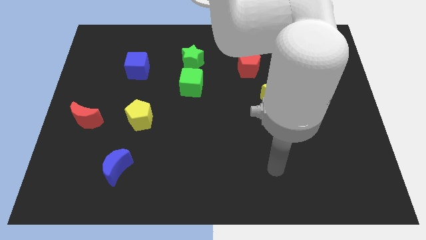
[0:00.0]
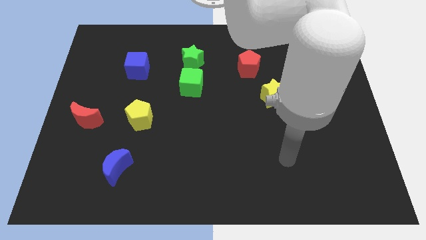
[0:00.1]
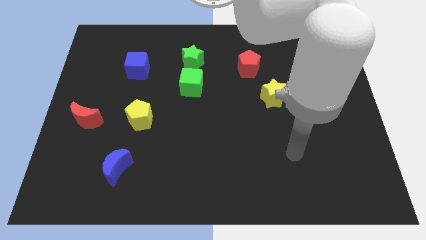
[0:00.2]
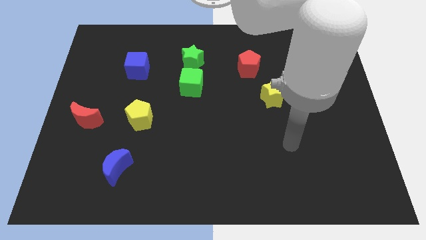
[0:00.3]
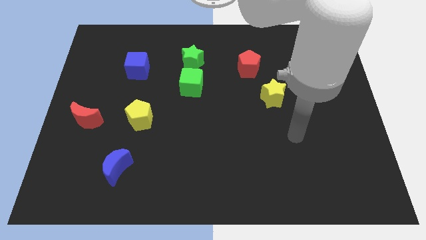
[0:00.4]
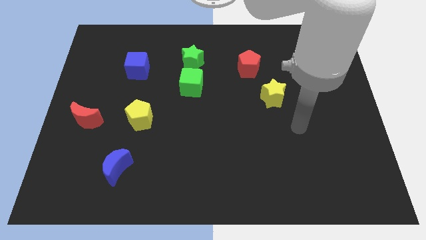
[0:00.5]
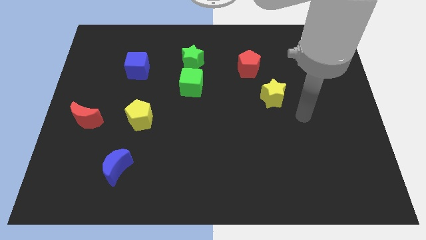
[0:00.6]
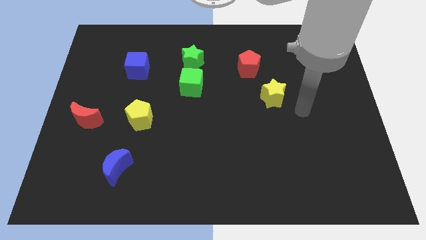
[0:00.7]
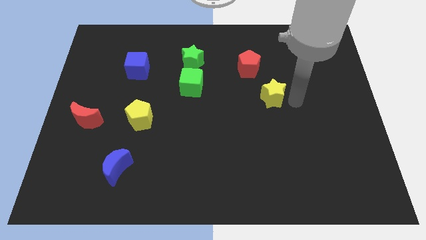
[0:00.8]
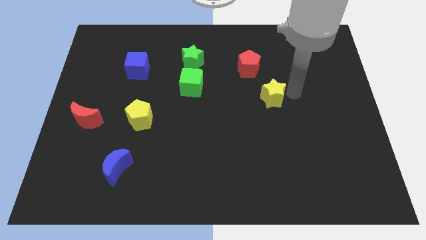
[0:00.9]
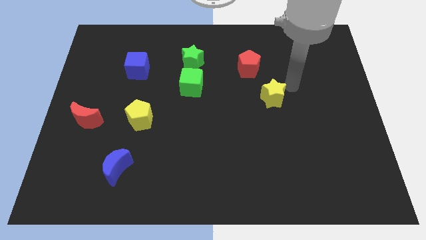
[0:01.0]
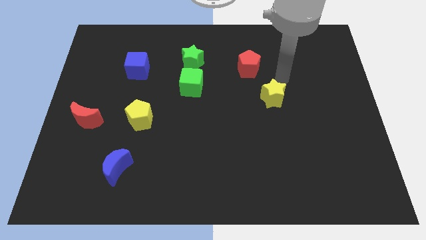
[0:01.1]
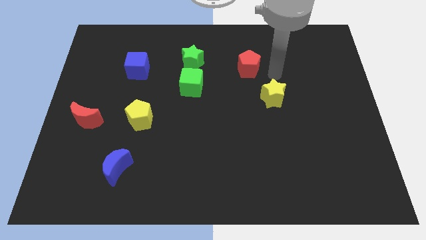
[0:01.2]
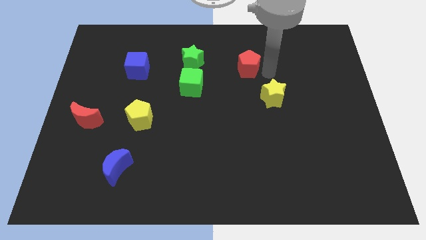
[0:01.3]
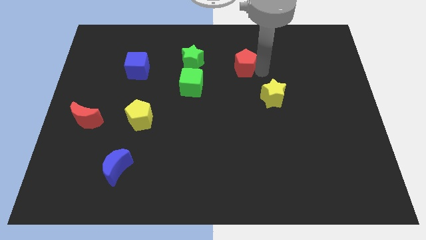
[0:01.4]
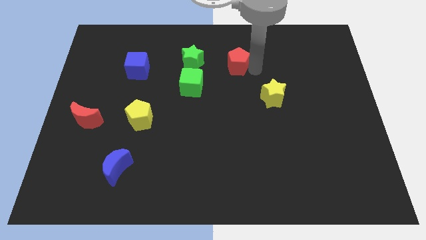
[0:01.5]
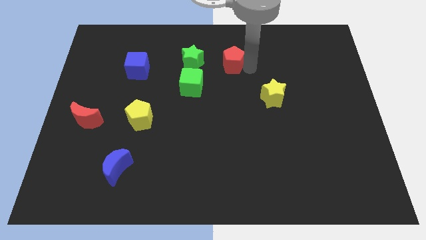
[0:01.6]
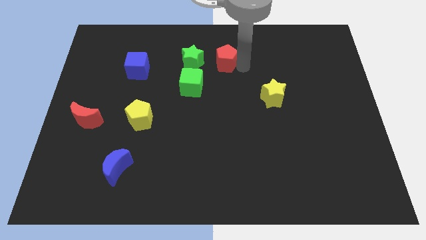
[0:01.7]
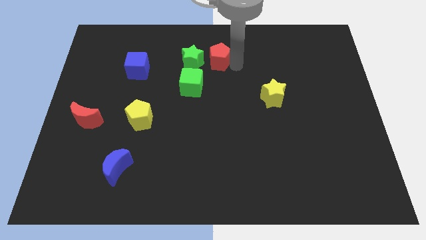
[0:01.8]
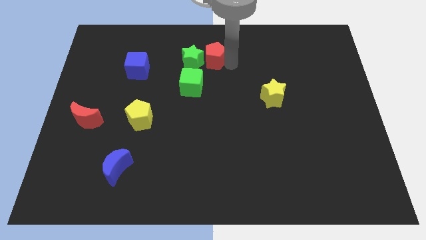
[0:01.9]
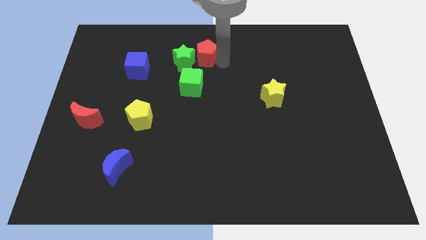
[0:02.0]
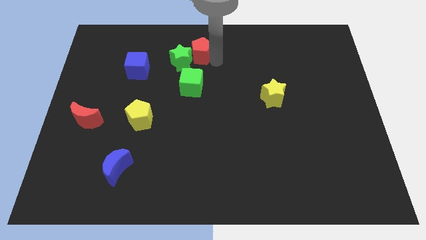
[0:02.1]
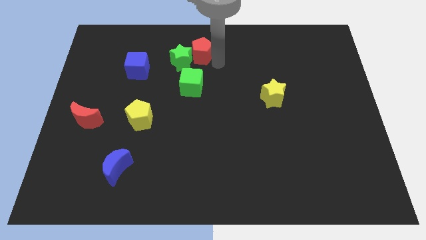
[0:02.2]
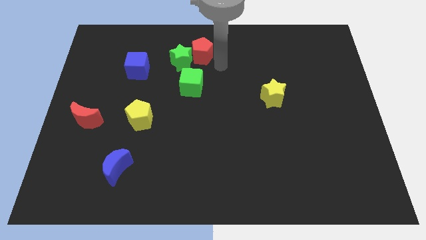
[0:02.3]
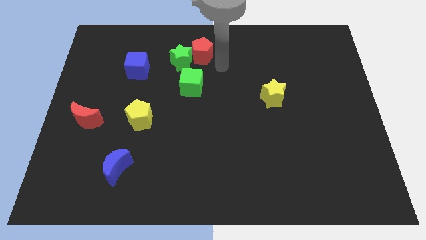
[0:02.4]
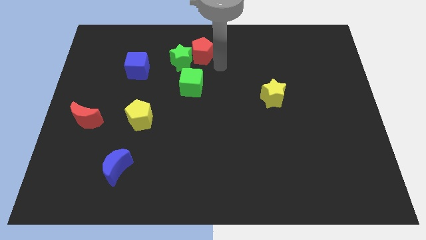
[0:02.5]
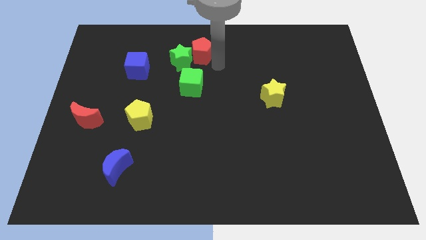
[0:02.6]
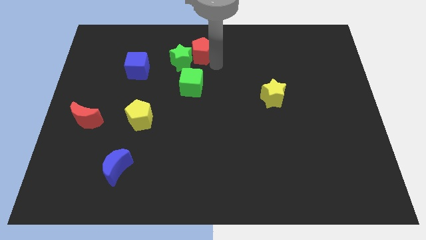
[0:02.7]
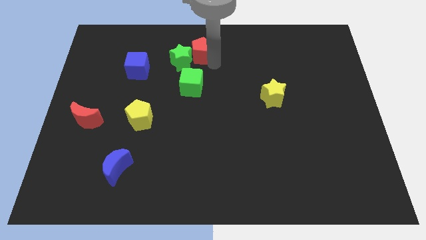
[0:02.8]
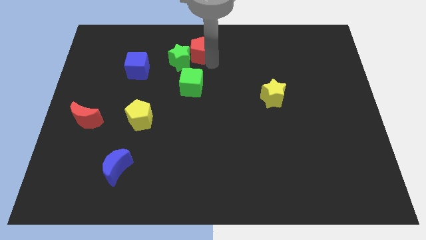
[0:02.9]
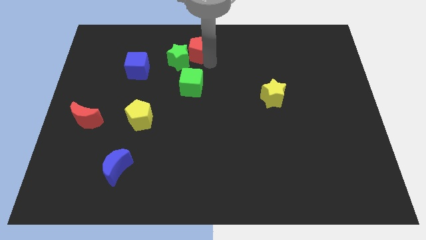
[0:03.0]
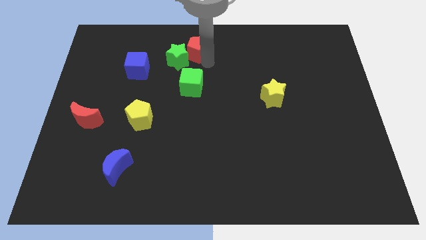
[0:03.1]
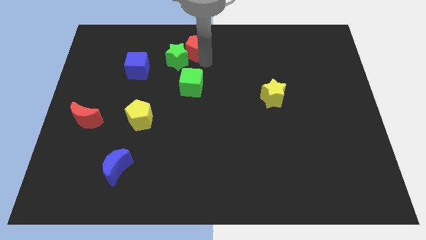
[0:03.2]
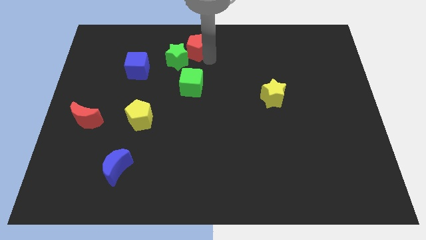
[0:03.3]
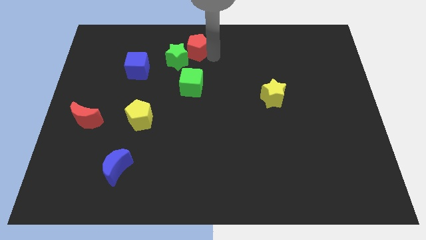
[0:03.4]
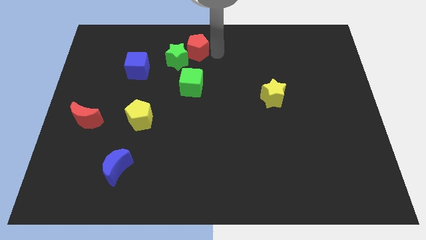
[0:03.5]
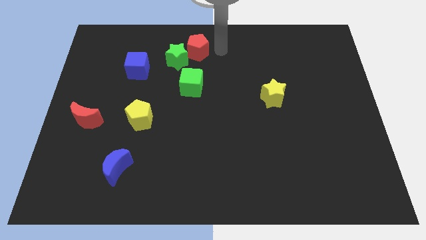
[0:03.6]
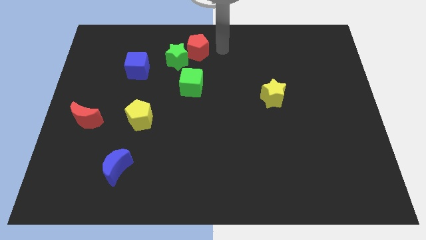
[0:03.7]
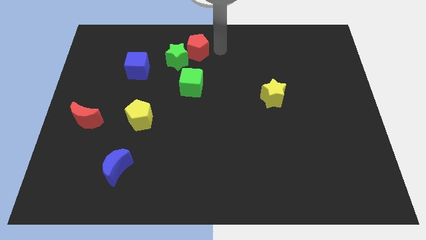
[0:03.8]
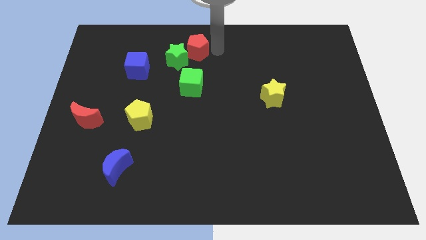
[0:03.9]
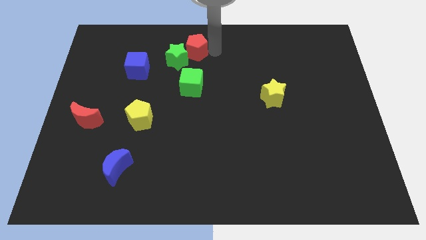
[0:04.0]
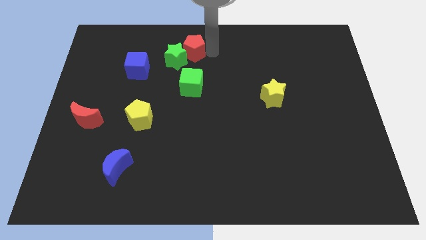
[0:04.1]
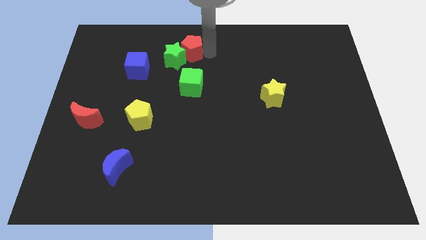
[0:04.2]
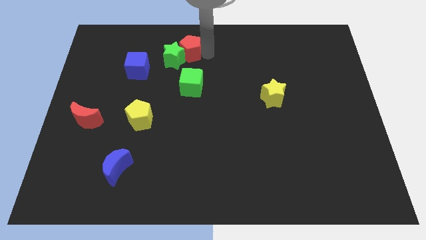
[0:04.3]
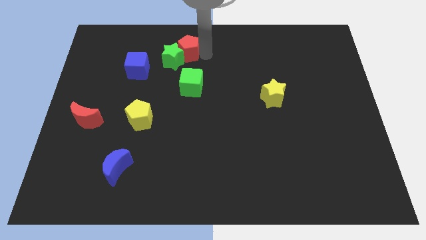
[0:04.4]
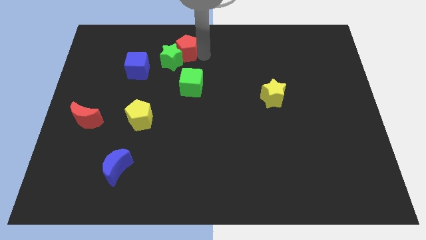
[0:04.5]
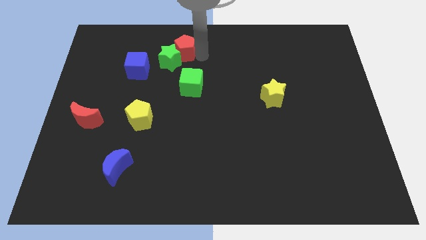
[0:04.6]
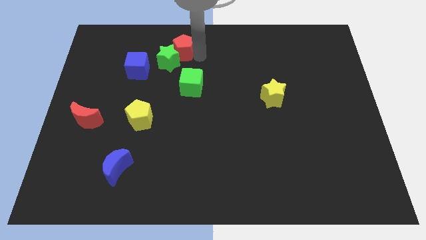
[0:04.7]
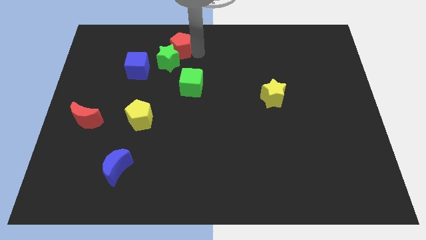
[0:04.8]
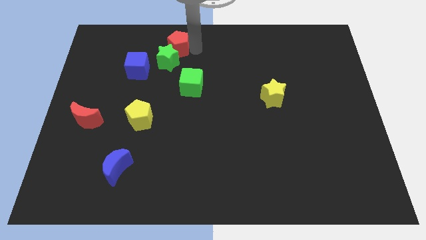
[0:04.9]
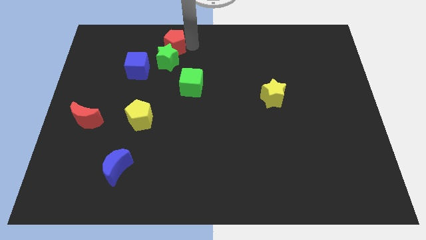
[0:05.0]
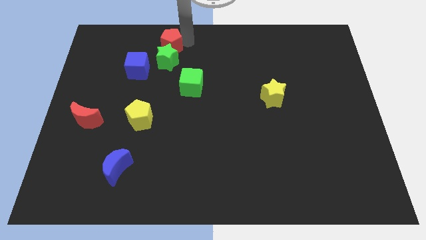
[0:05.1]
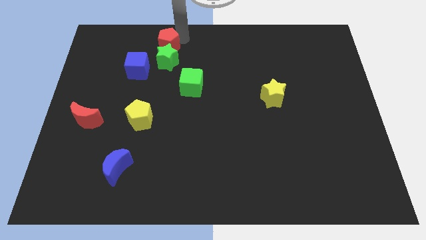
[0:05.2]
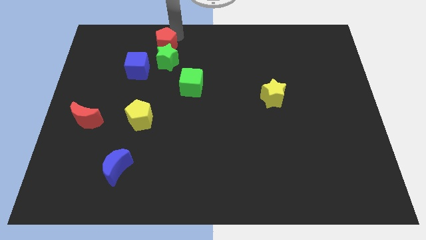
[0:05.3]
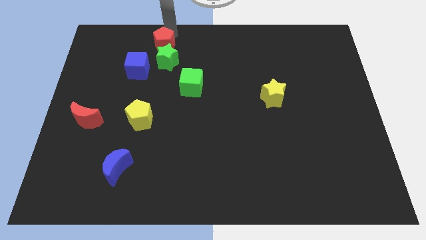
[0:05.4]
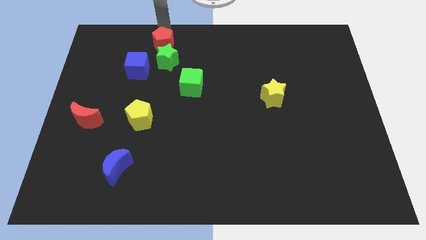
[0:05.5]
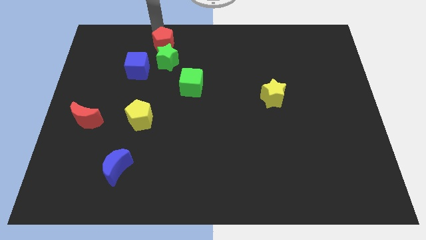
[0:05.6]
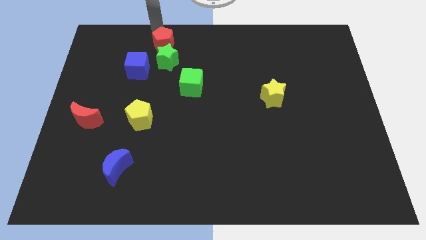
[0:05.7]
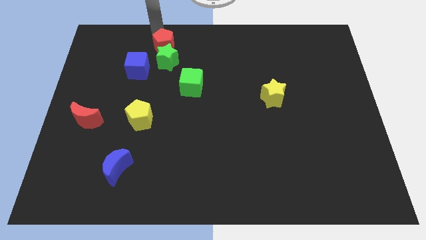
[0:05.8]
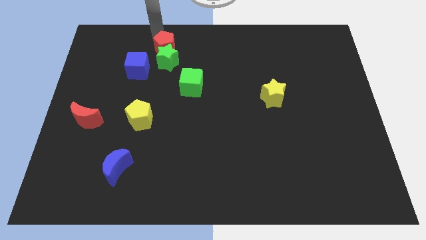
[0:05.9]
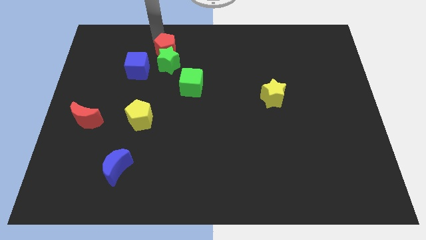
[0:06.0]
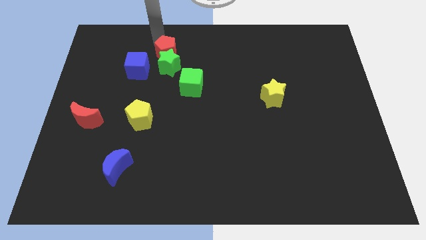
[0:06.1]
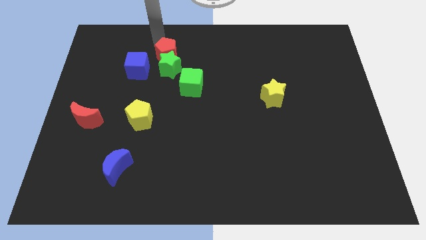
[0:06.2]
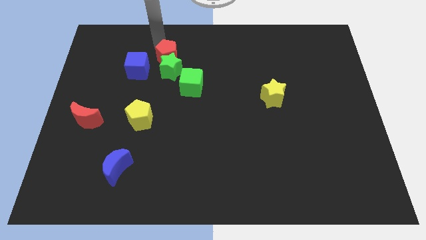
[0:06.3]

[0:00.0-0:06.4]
push the red pentagon right of the blue cube
